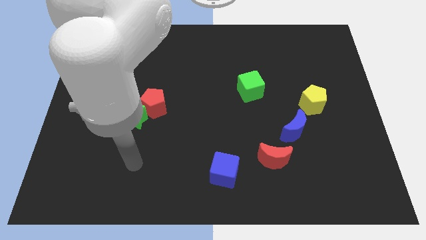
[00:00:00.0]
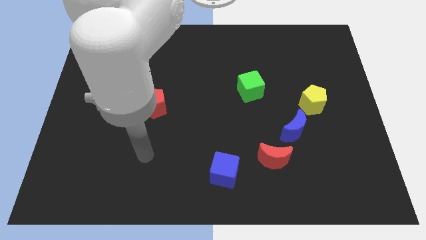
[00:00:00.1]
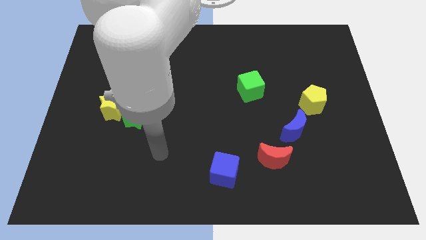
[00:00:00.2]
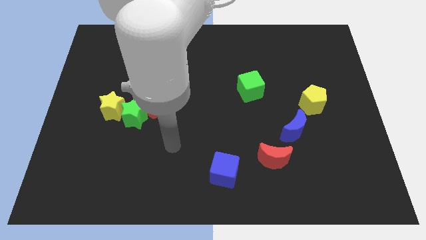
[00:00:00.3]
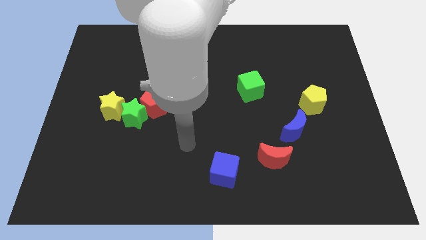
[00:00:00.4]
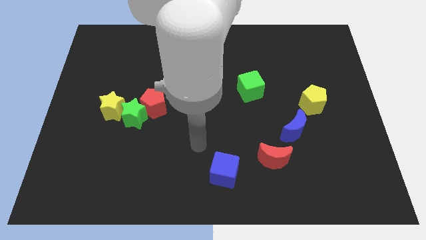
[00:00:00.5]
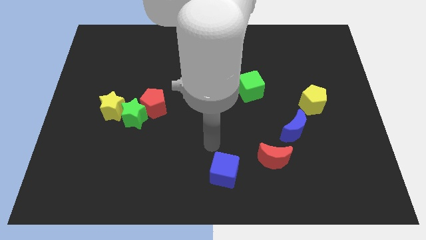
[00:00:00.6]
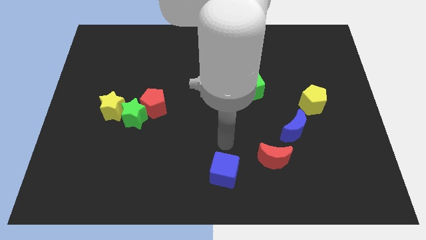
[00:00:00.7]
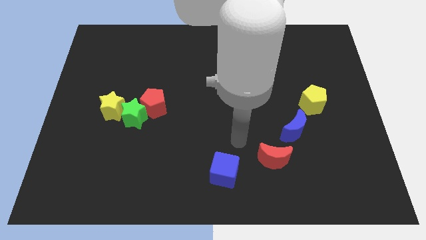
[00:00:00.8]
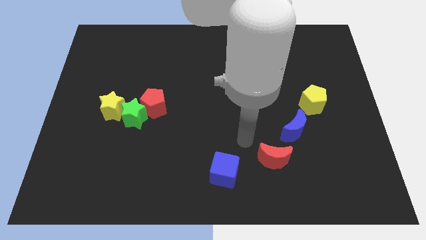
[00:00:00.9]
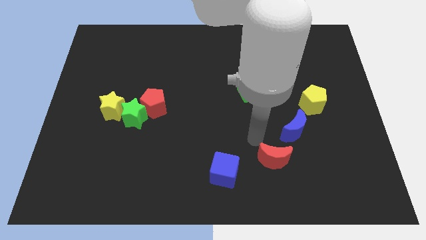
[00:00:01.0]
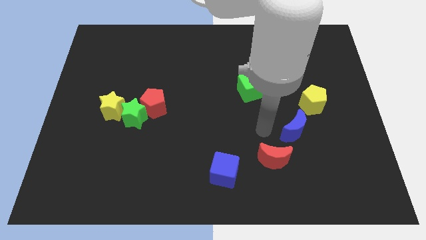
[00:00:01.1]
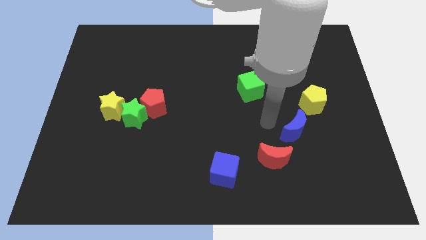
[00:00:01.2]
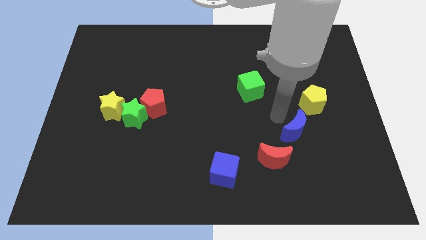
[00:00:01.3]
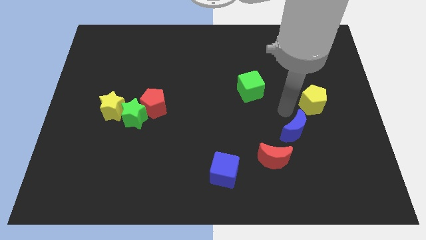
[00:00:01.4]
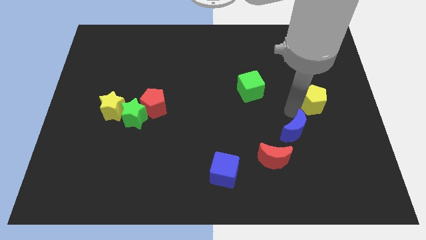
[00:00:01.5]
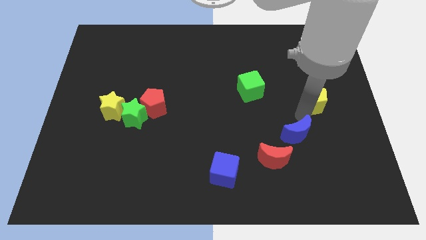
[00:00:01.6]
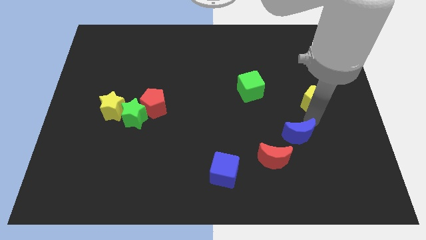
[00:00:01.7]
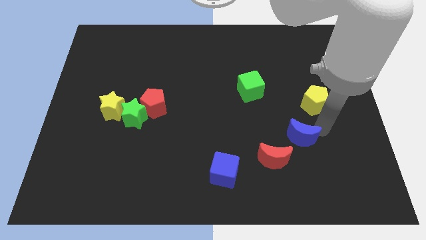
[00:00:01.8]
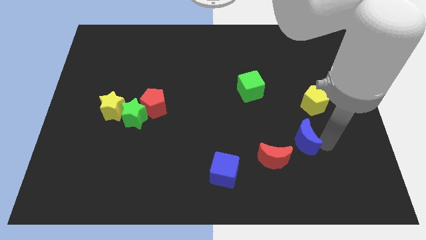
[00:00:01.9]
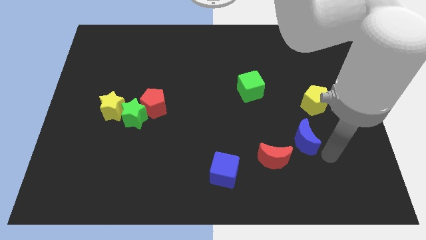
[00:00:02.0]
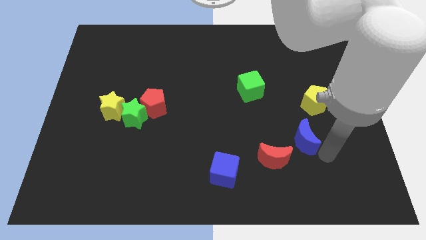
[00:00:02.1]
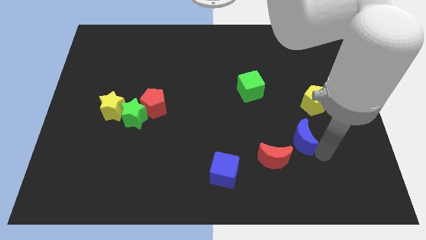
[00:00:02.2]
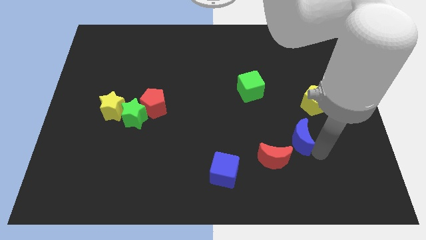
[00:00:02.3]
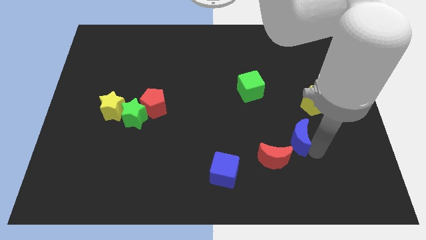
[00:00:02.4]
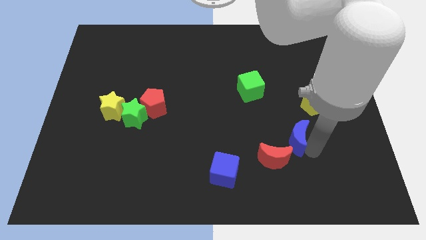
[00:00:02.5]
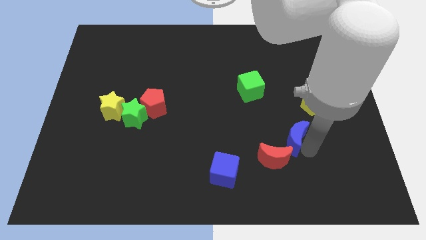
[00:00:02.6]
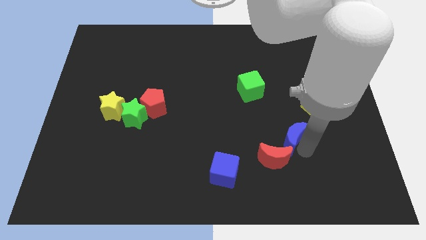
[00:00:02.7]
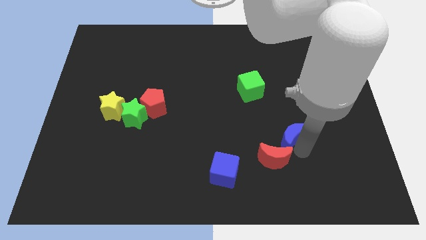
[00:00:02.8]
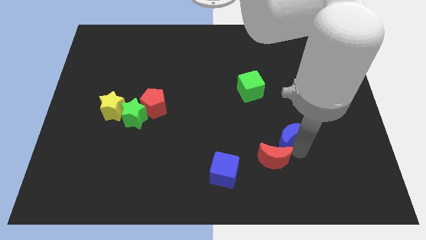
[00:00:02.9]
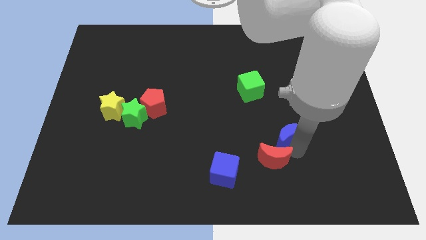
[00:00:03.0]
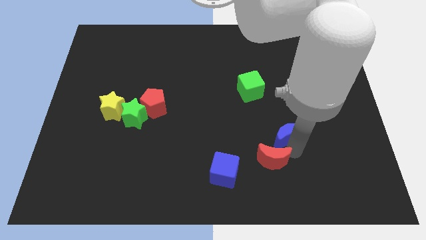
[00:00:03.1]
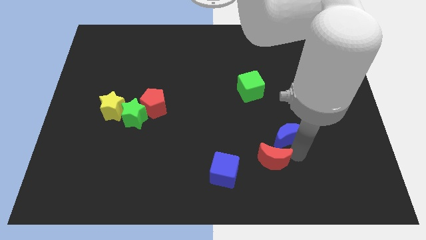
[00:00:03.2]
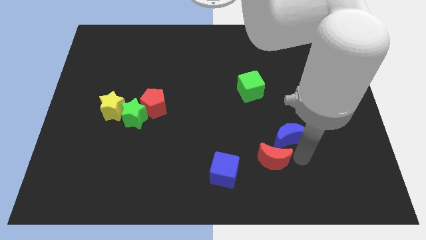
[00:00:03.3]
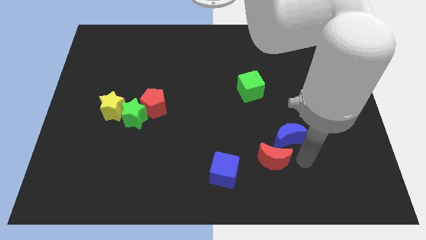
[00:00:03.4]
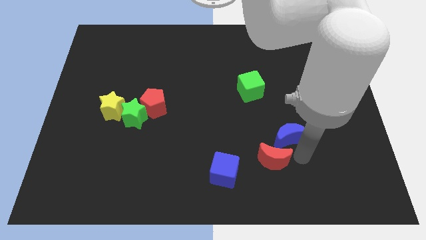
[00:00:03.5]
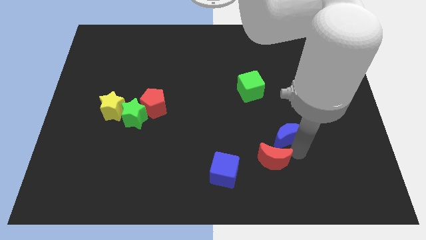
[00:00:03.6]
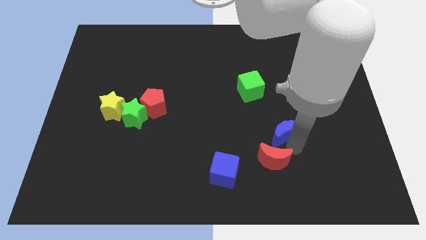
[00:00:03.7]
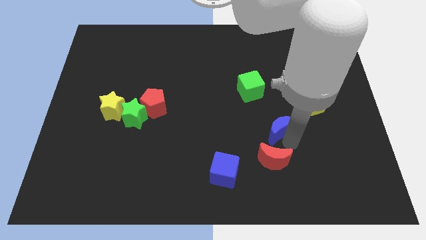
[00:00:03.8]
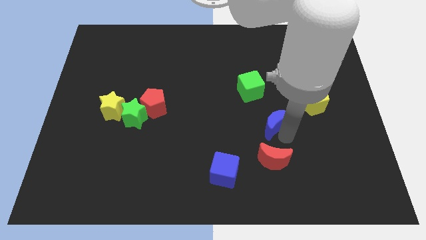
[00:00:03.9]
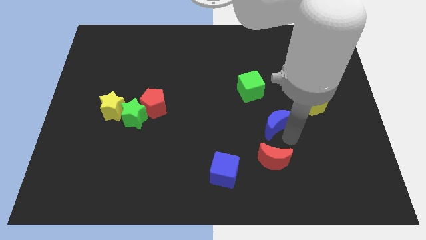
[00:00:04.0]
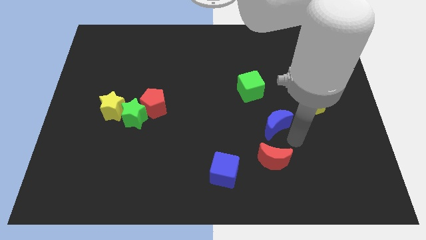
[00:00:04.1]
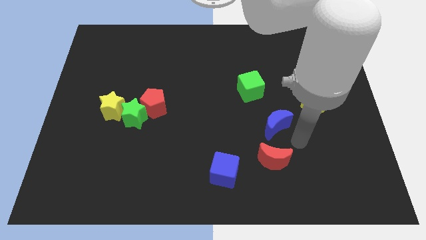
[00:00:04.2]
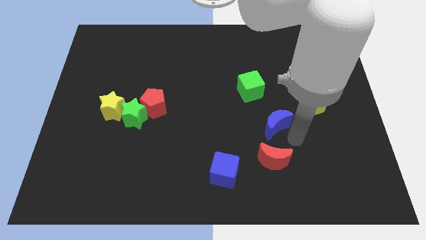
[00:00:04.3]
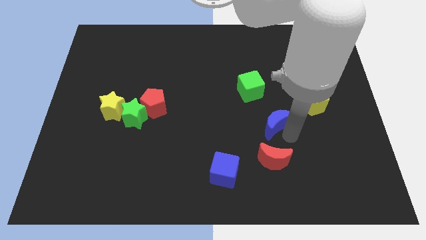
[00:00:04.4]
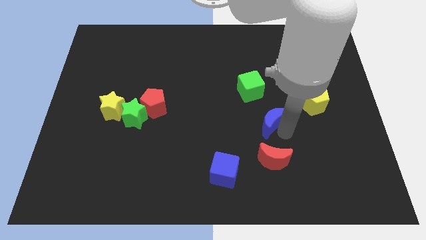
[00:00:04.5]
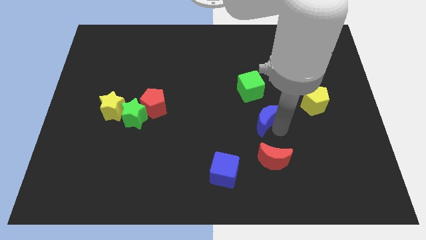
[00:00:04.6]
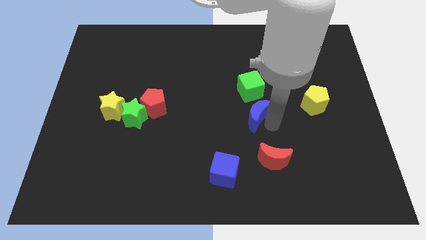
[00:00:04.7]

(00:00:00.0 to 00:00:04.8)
slightly push the blue moon upwards and to the left diagonally

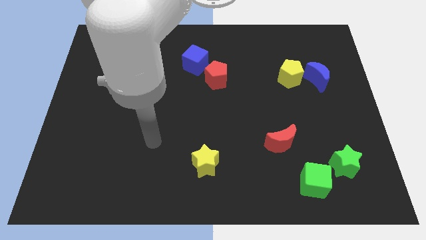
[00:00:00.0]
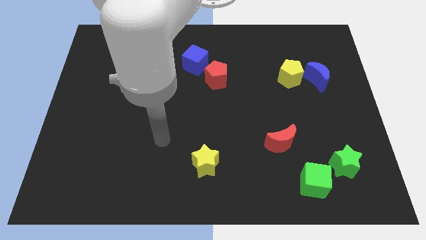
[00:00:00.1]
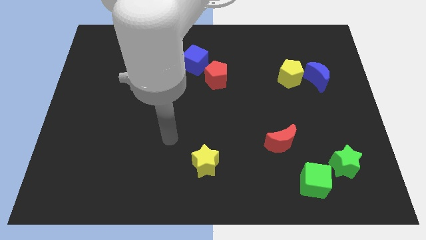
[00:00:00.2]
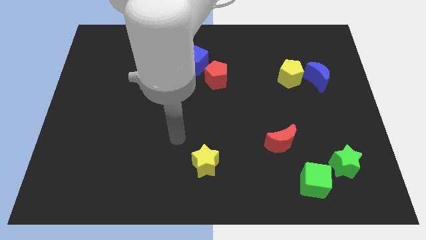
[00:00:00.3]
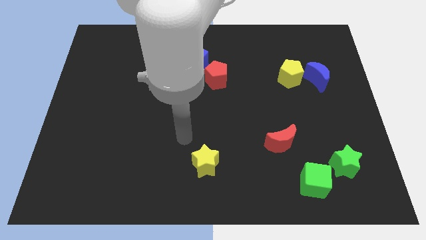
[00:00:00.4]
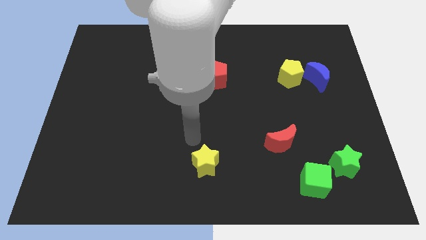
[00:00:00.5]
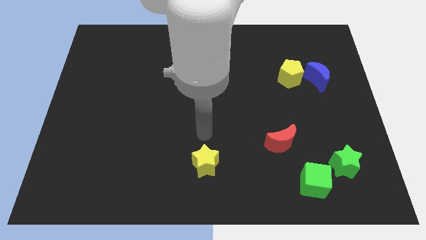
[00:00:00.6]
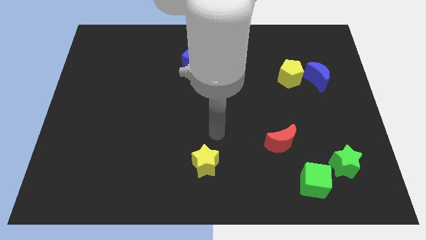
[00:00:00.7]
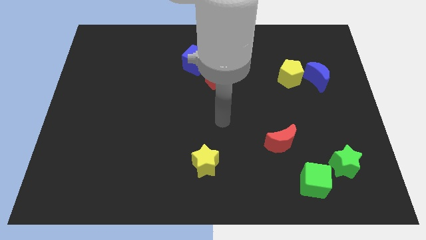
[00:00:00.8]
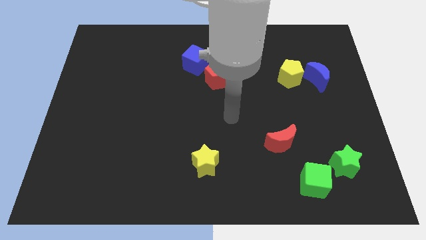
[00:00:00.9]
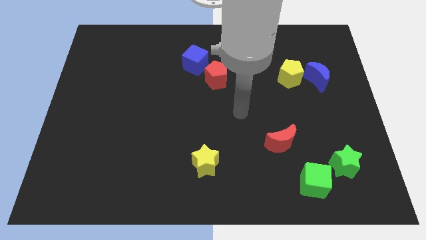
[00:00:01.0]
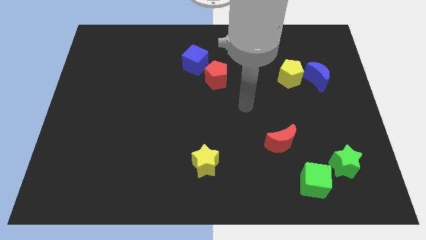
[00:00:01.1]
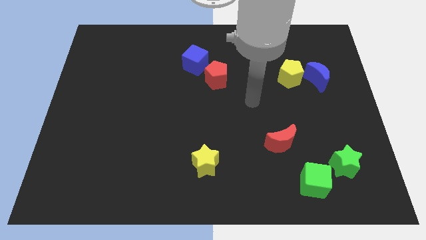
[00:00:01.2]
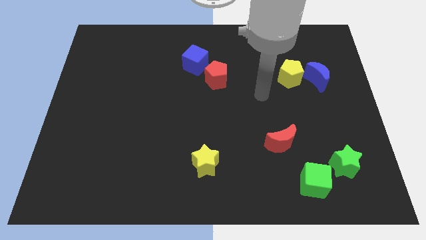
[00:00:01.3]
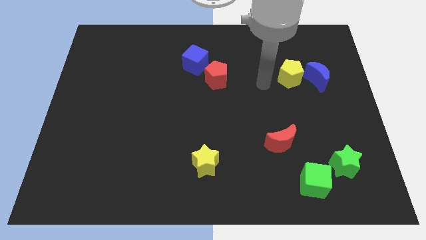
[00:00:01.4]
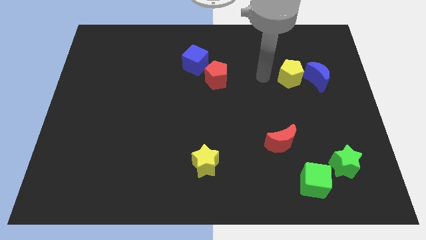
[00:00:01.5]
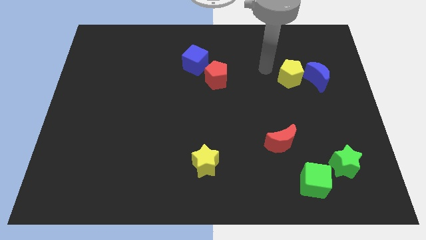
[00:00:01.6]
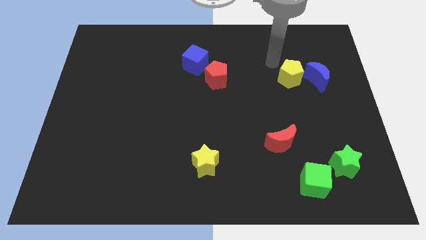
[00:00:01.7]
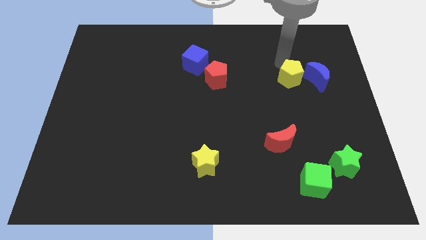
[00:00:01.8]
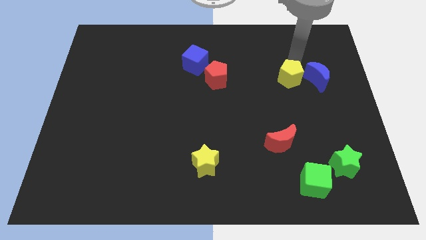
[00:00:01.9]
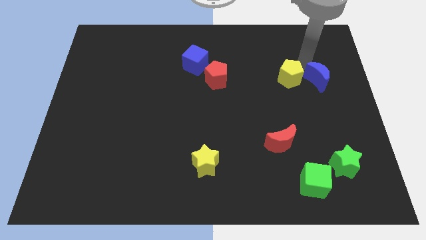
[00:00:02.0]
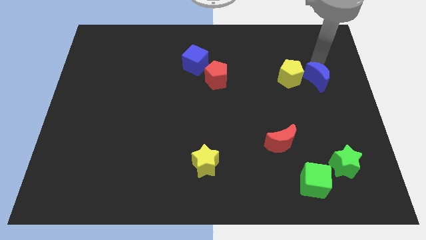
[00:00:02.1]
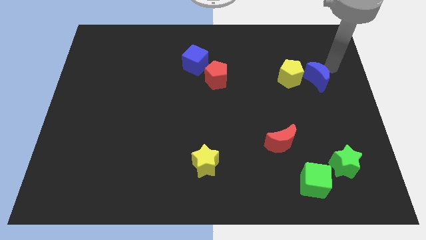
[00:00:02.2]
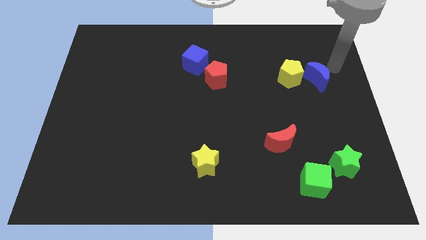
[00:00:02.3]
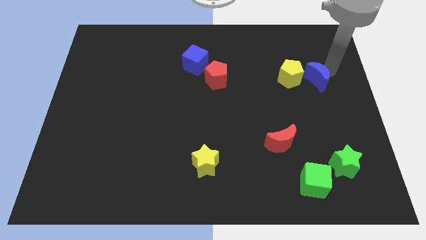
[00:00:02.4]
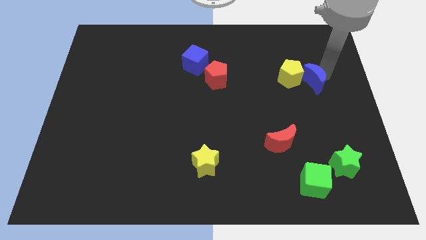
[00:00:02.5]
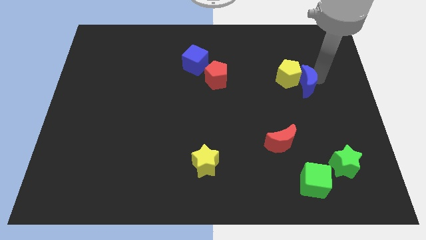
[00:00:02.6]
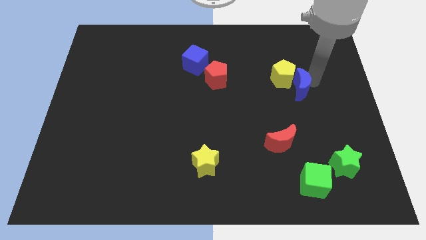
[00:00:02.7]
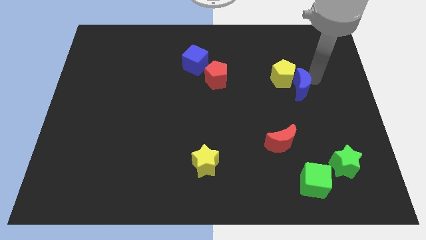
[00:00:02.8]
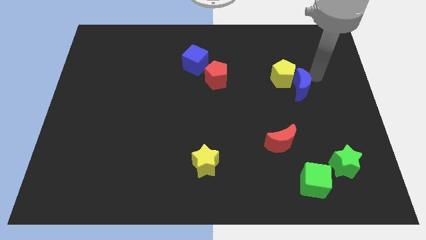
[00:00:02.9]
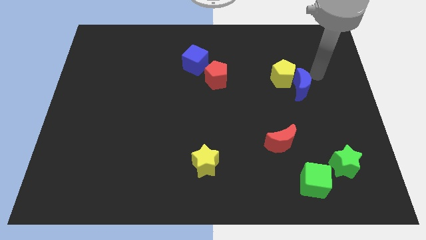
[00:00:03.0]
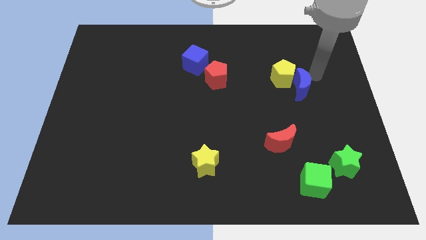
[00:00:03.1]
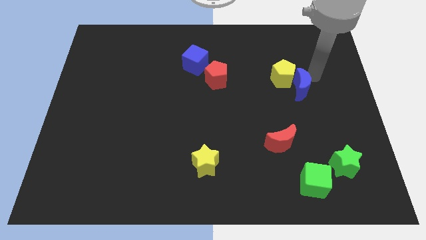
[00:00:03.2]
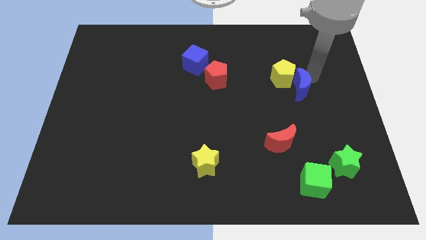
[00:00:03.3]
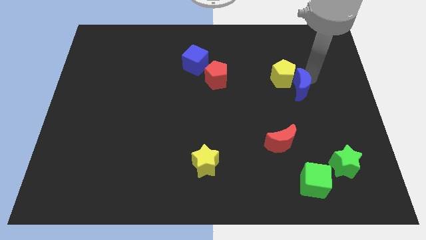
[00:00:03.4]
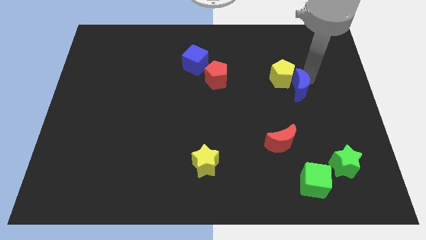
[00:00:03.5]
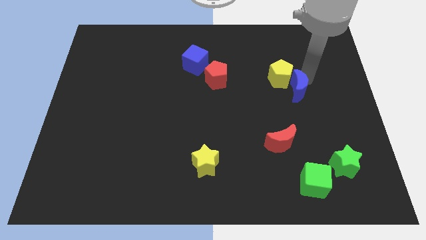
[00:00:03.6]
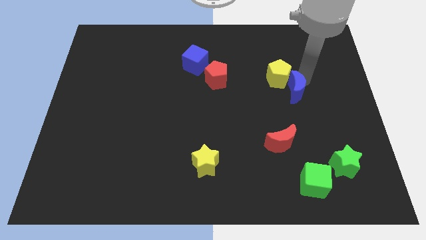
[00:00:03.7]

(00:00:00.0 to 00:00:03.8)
move the blue moon a little bit diagonally downwards and left
